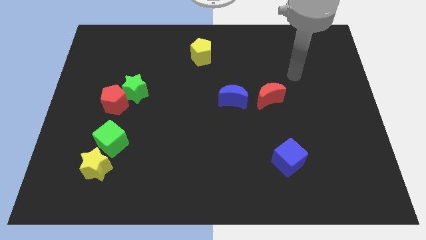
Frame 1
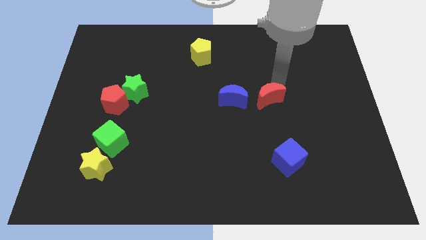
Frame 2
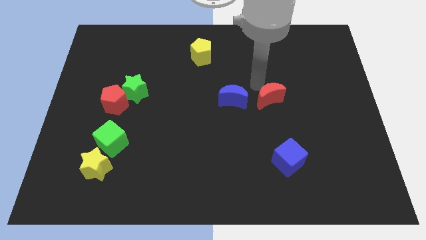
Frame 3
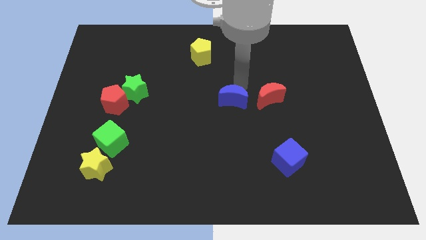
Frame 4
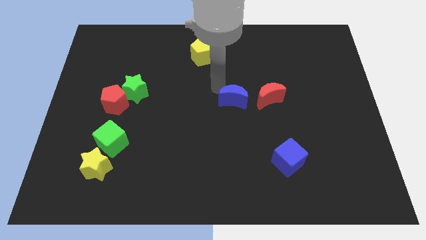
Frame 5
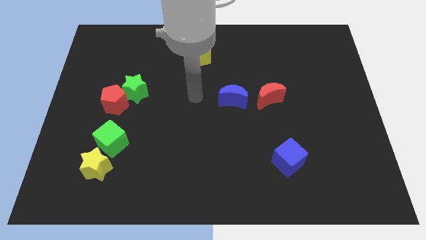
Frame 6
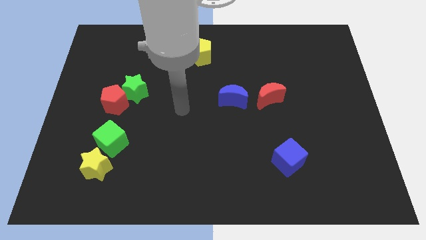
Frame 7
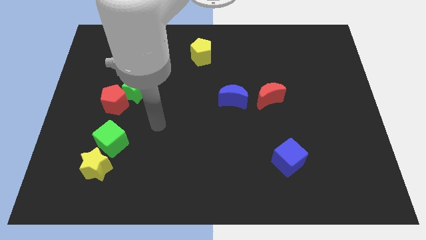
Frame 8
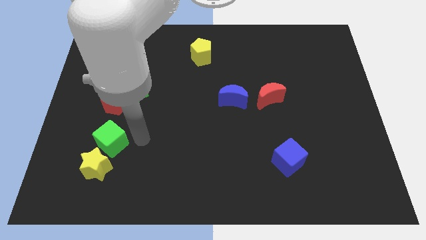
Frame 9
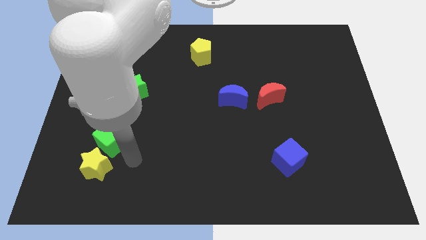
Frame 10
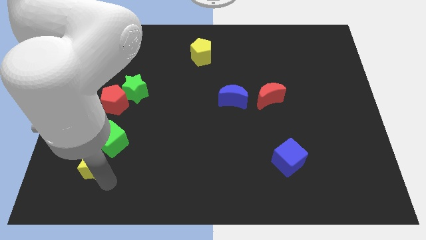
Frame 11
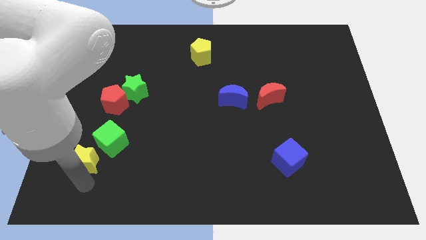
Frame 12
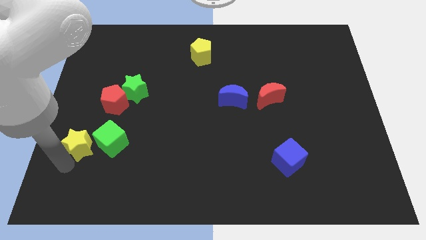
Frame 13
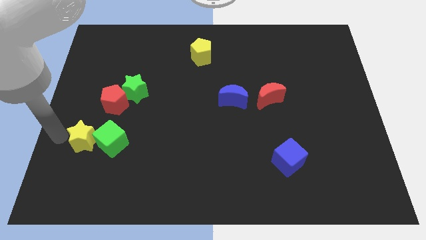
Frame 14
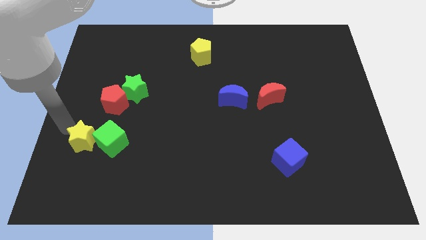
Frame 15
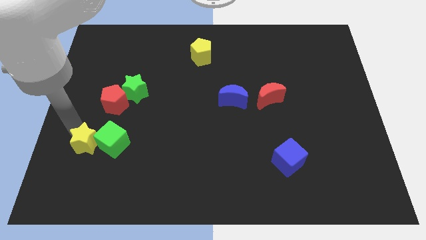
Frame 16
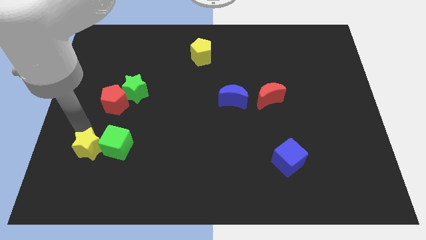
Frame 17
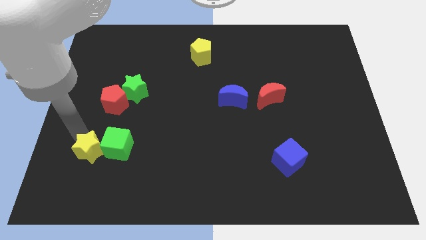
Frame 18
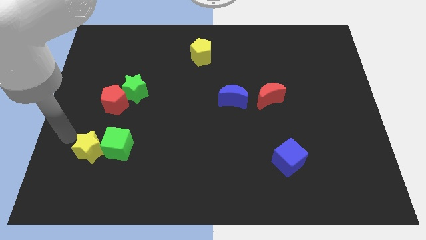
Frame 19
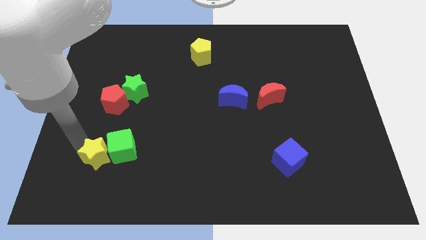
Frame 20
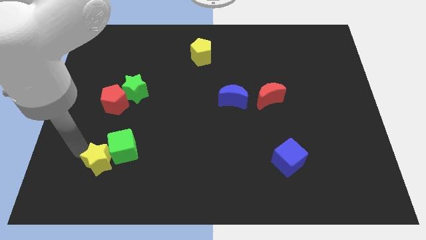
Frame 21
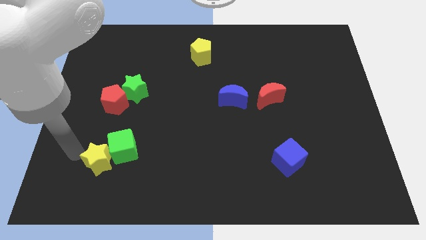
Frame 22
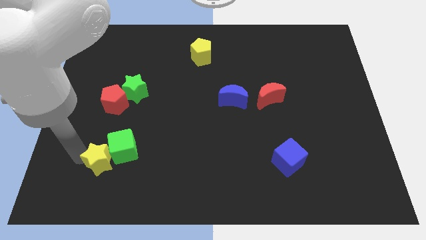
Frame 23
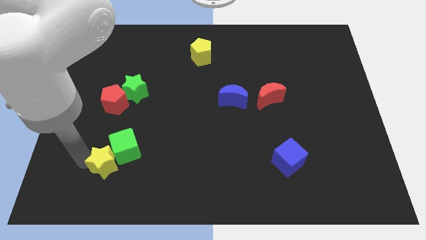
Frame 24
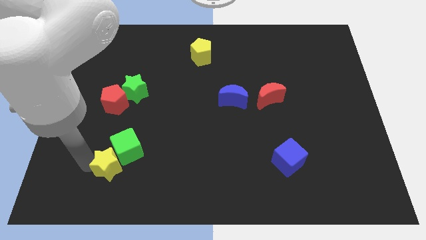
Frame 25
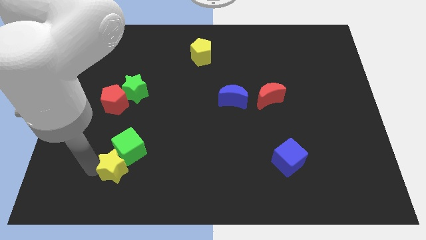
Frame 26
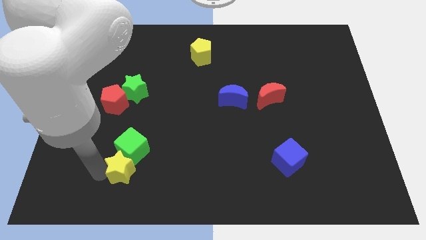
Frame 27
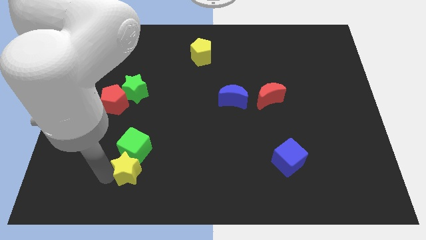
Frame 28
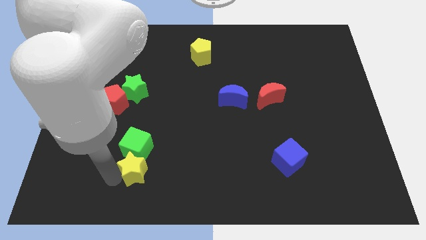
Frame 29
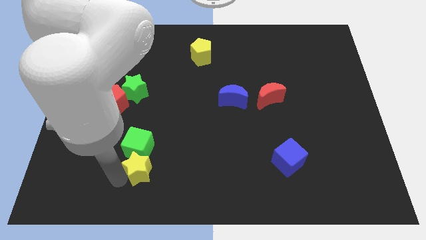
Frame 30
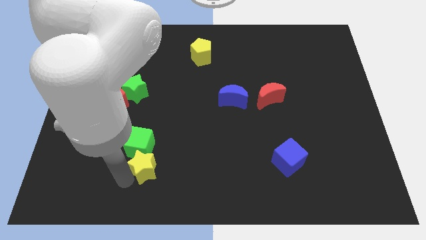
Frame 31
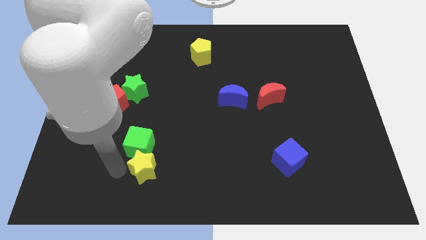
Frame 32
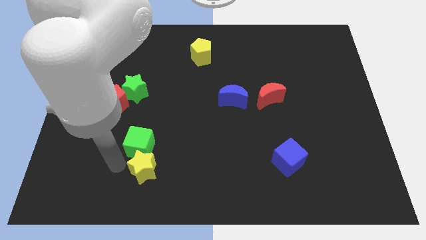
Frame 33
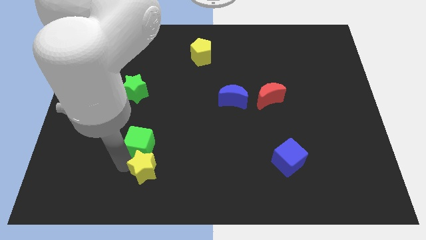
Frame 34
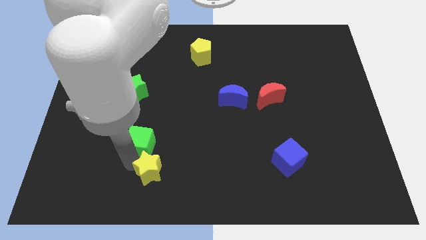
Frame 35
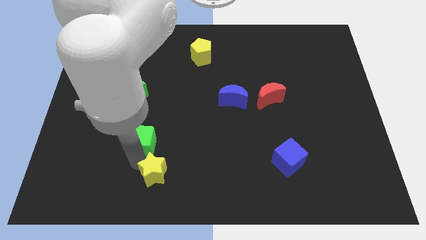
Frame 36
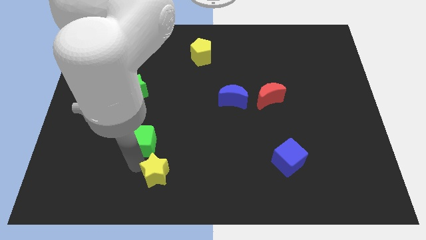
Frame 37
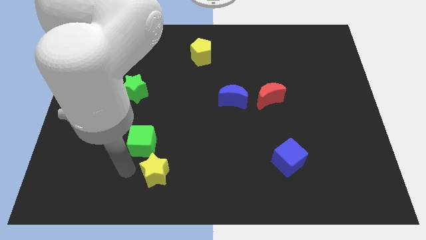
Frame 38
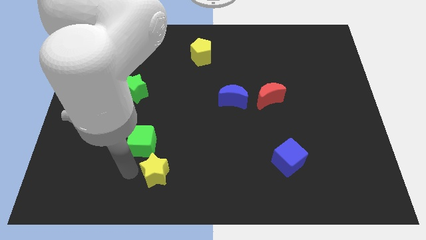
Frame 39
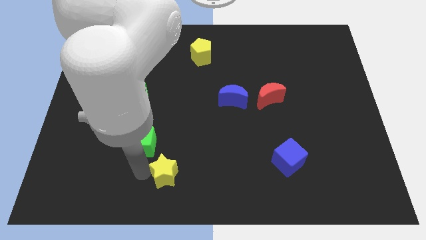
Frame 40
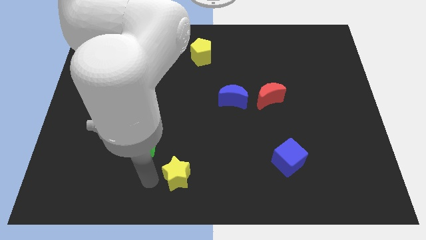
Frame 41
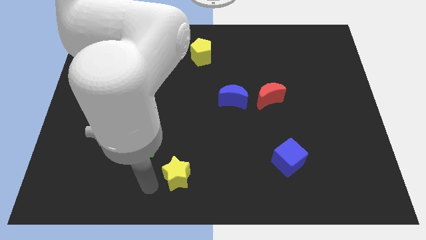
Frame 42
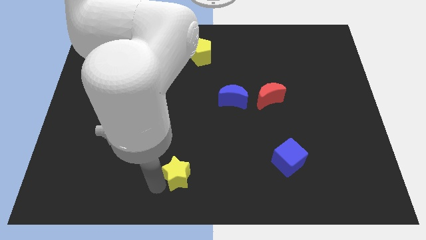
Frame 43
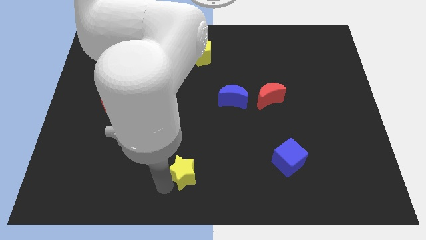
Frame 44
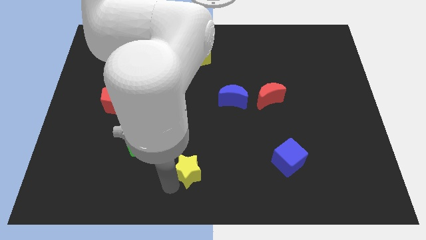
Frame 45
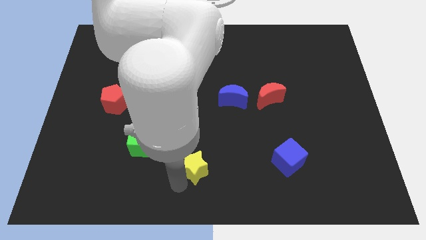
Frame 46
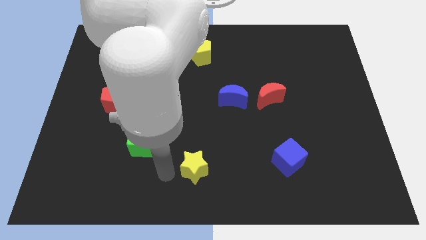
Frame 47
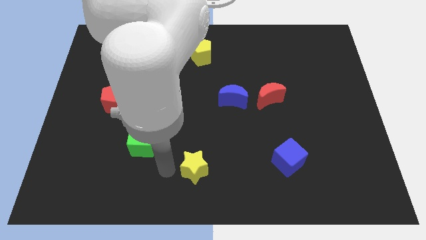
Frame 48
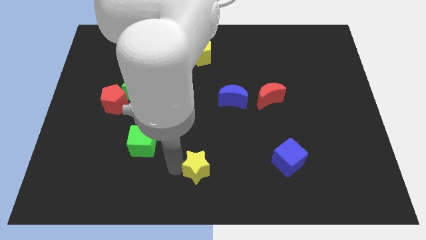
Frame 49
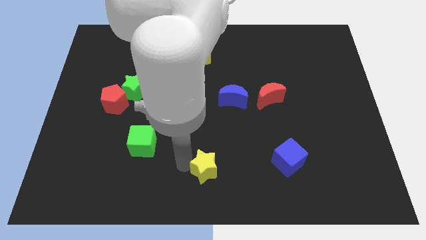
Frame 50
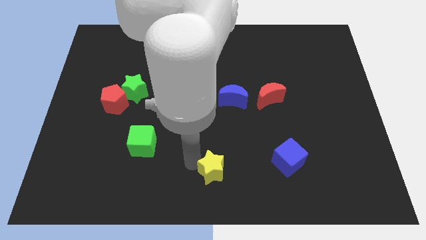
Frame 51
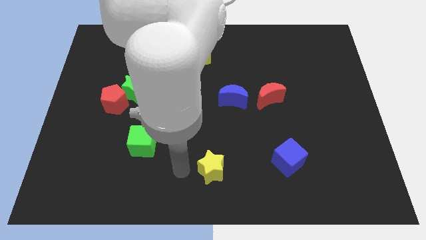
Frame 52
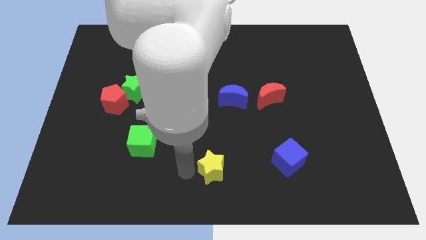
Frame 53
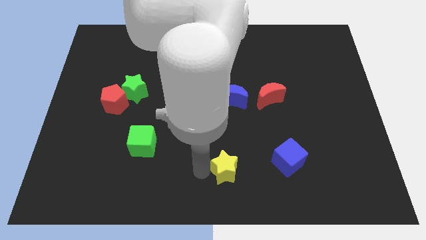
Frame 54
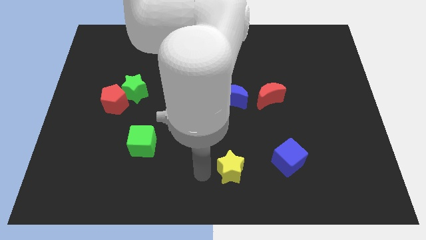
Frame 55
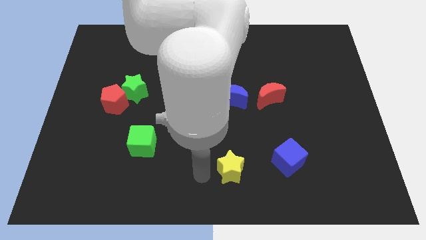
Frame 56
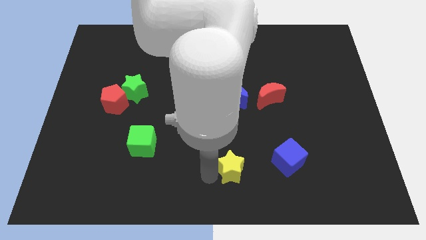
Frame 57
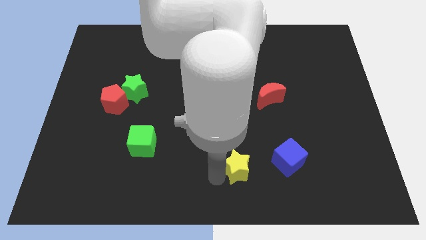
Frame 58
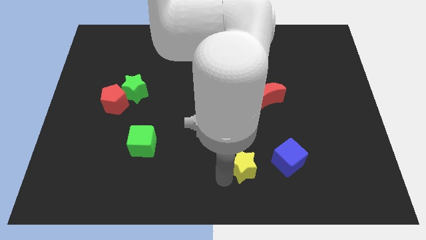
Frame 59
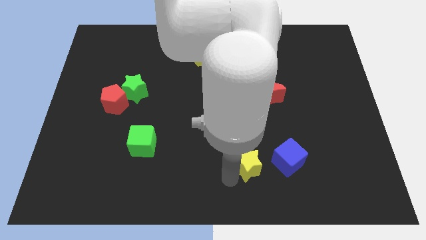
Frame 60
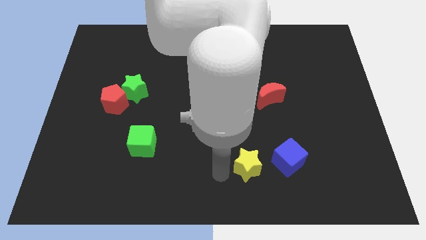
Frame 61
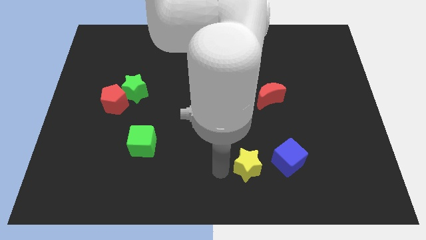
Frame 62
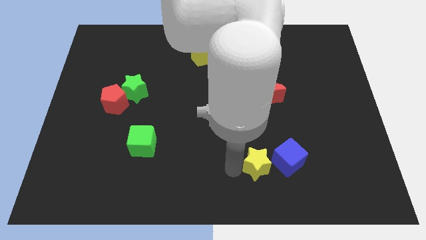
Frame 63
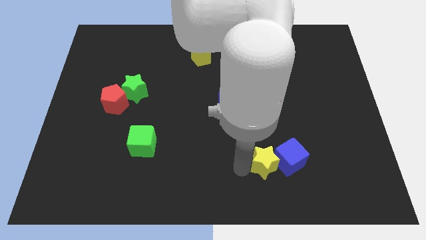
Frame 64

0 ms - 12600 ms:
push the yellow star towards the blue cube
